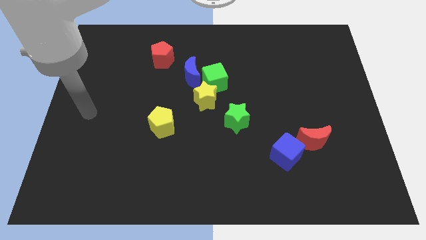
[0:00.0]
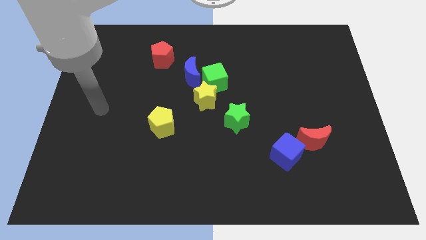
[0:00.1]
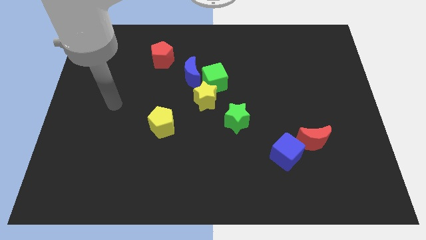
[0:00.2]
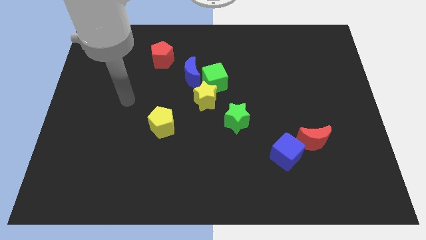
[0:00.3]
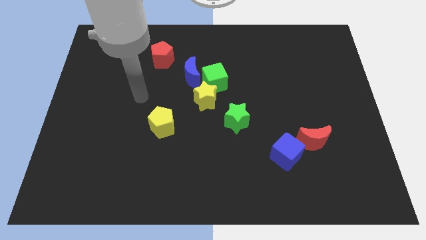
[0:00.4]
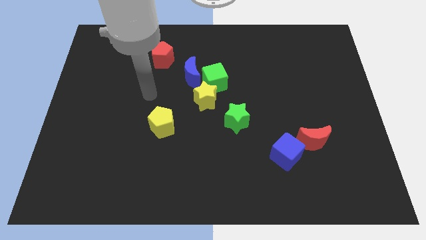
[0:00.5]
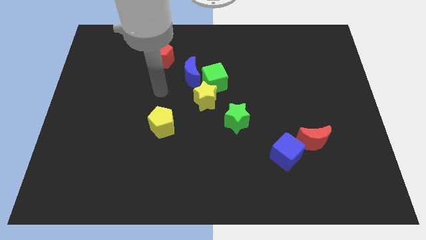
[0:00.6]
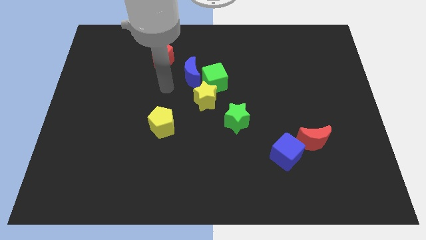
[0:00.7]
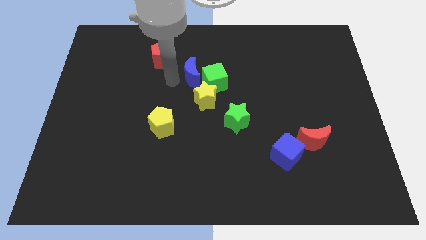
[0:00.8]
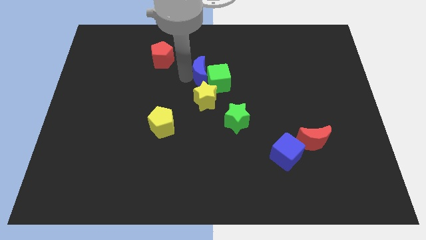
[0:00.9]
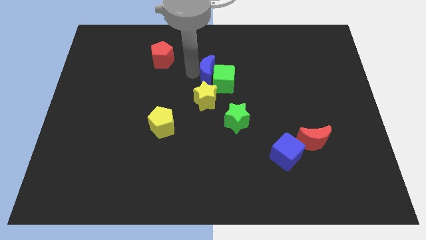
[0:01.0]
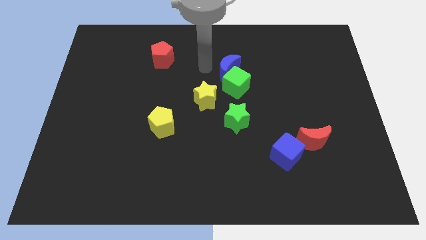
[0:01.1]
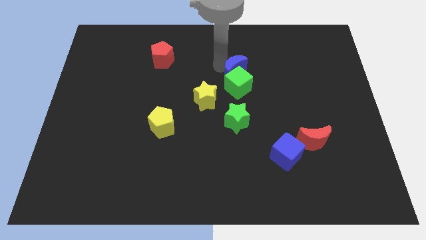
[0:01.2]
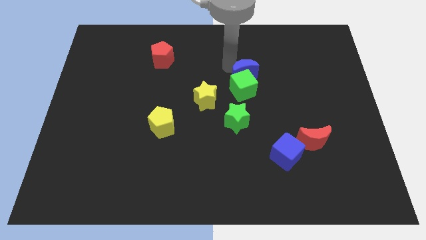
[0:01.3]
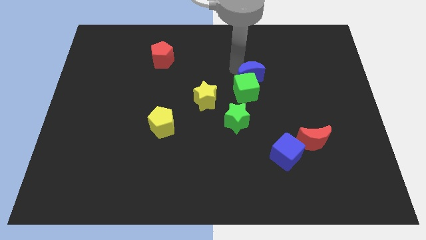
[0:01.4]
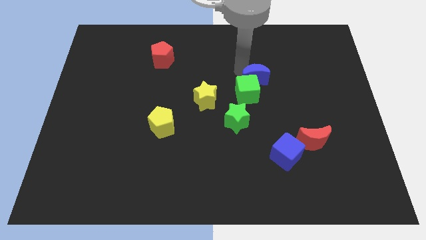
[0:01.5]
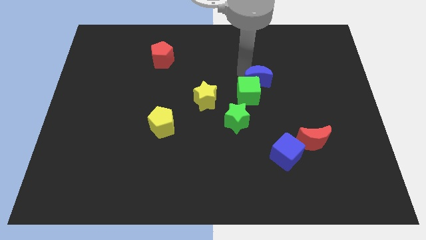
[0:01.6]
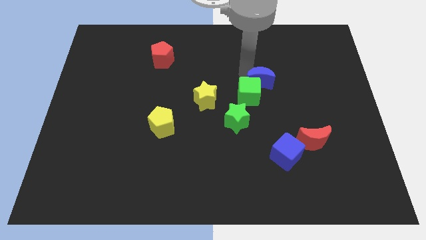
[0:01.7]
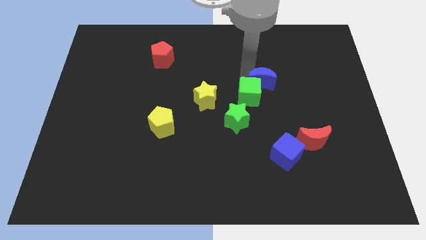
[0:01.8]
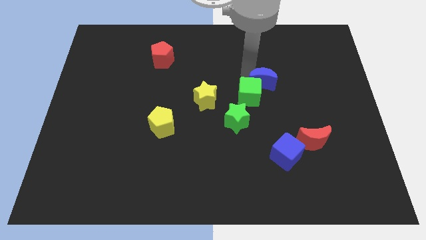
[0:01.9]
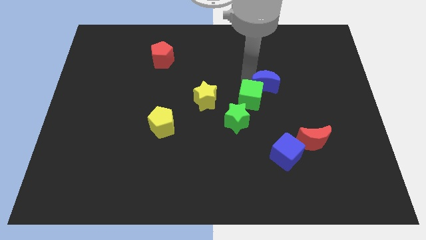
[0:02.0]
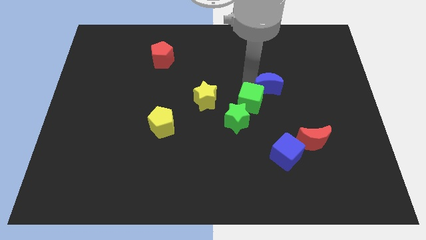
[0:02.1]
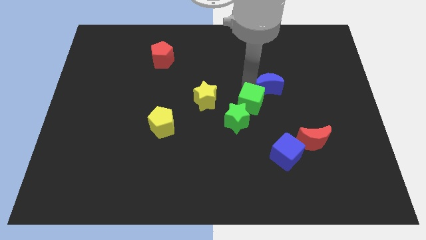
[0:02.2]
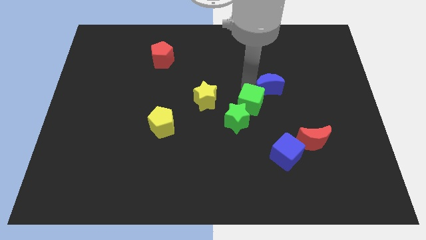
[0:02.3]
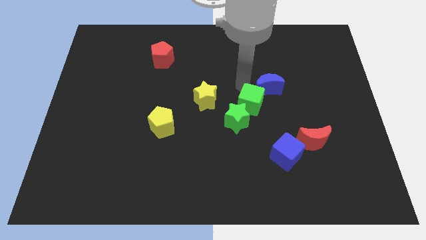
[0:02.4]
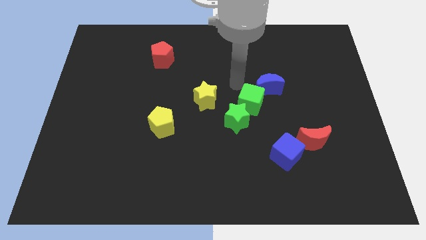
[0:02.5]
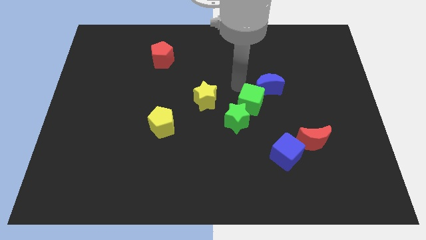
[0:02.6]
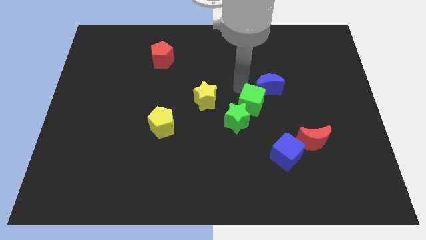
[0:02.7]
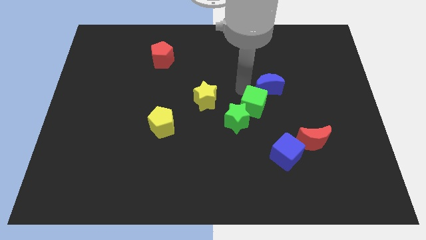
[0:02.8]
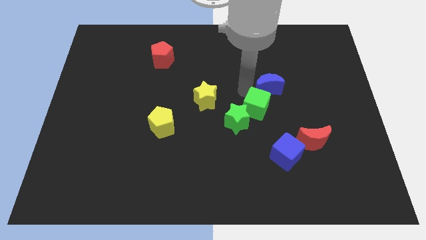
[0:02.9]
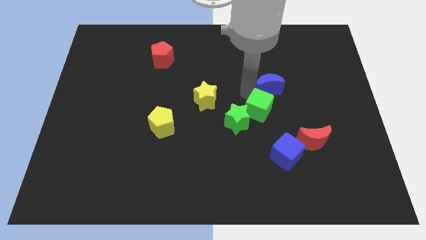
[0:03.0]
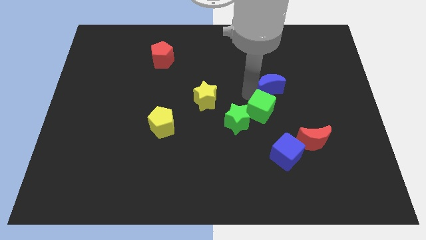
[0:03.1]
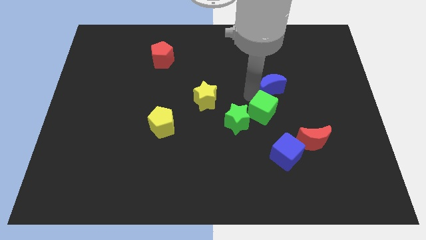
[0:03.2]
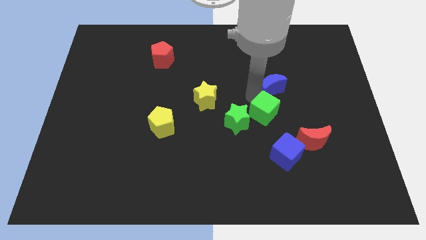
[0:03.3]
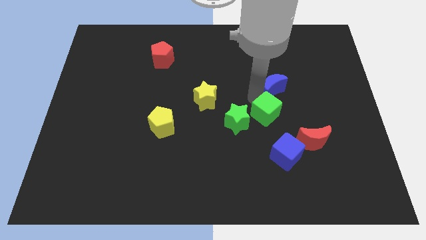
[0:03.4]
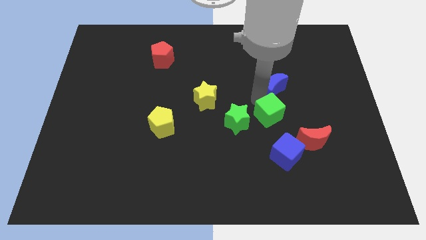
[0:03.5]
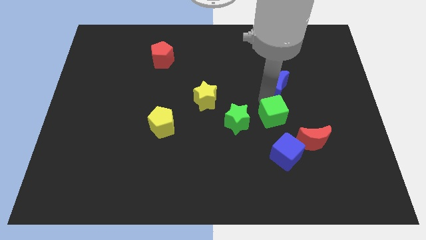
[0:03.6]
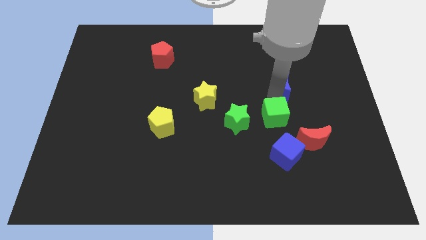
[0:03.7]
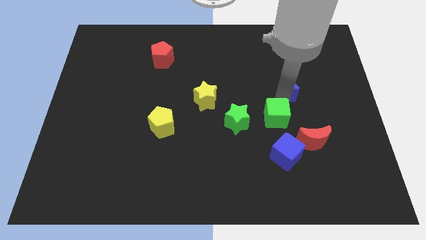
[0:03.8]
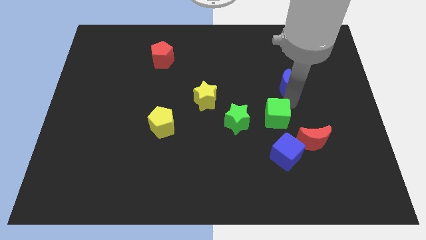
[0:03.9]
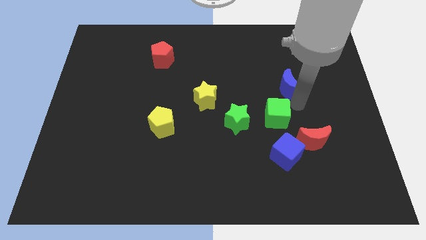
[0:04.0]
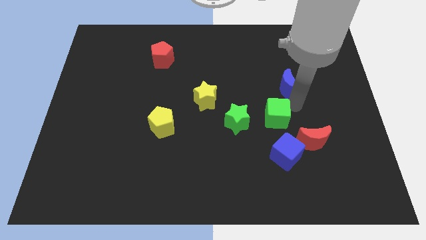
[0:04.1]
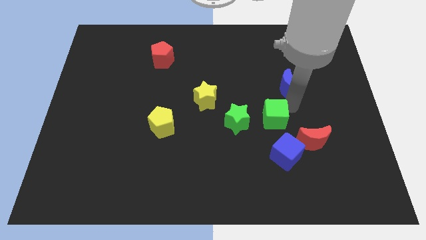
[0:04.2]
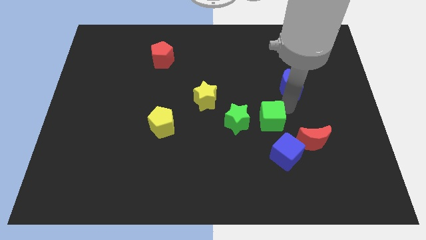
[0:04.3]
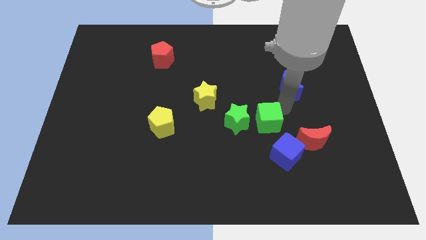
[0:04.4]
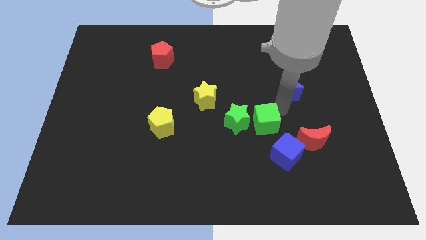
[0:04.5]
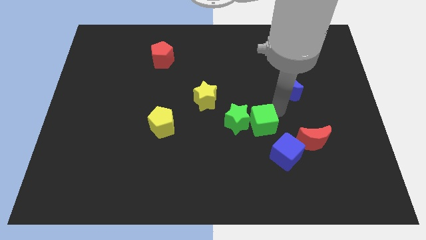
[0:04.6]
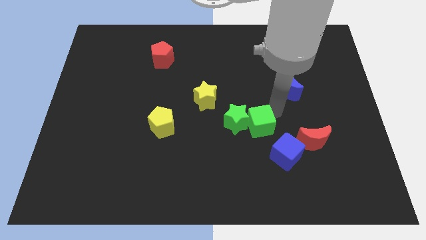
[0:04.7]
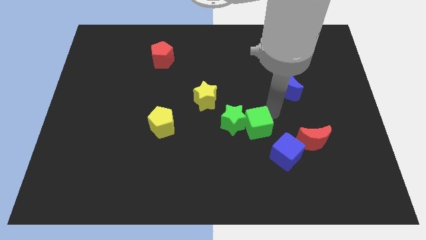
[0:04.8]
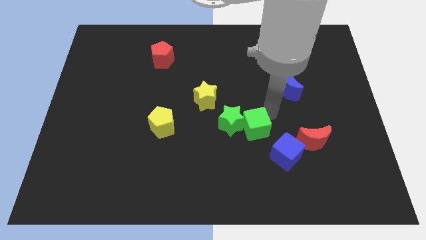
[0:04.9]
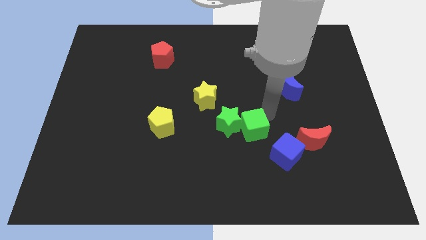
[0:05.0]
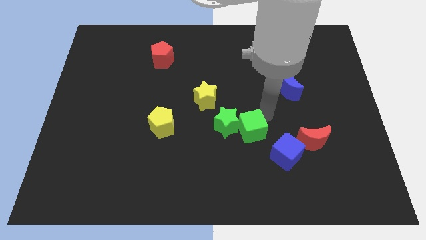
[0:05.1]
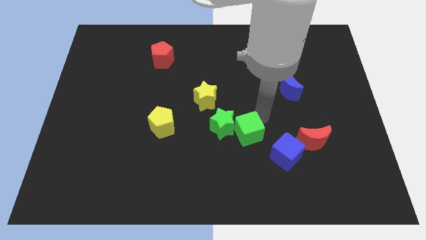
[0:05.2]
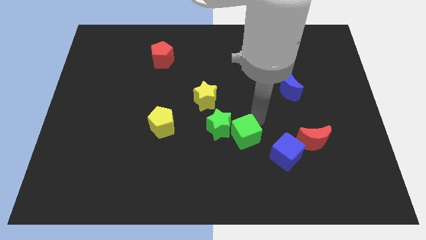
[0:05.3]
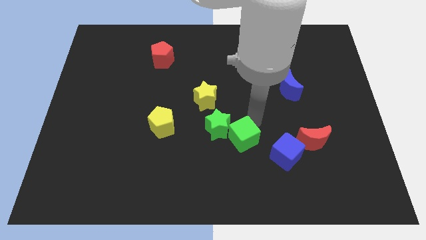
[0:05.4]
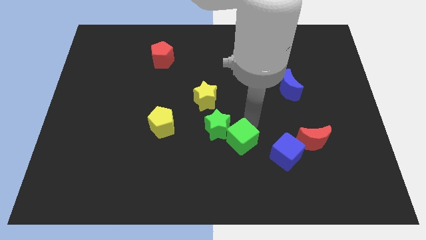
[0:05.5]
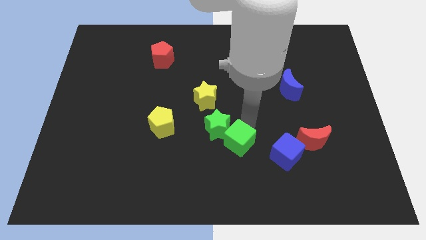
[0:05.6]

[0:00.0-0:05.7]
put the green cube to the bottom of the green star

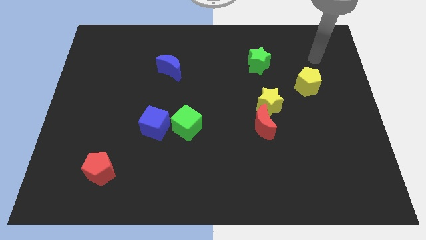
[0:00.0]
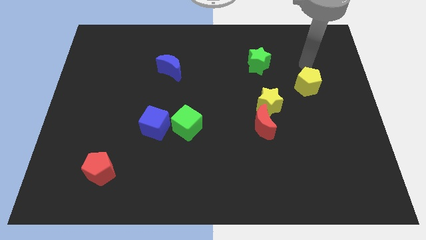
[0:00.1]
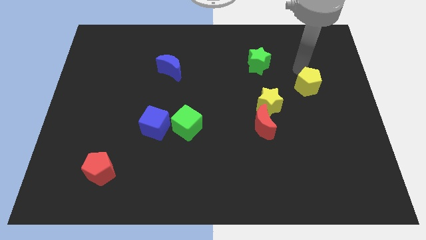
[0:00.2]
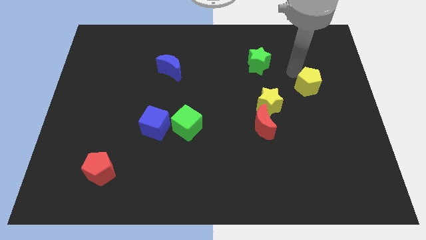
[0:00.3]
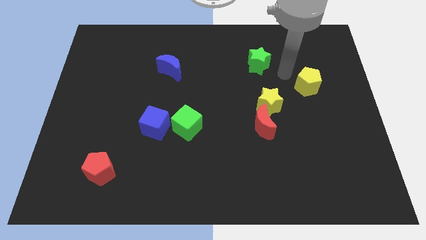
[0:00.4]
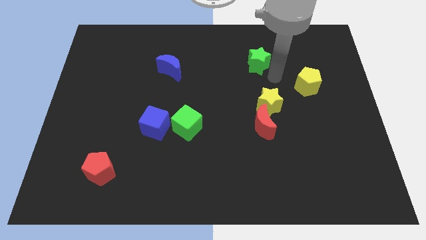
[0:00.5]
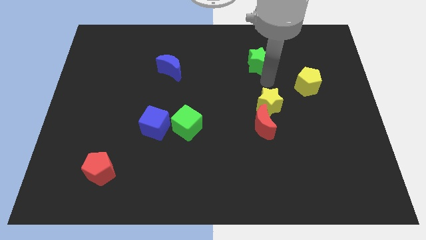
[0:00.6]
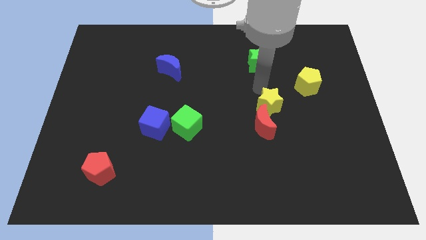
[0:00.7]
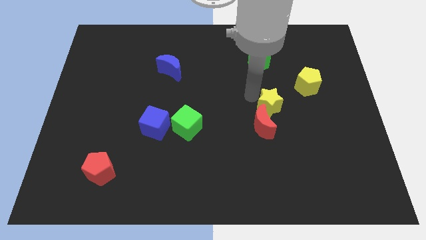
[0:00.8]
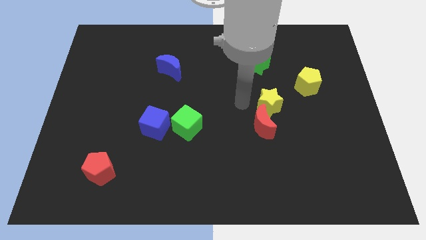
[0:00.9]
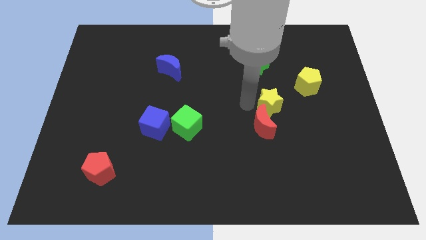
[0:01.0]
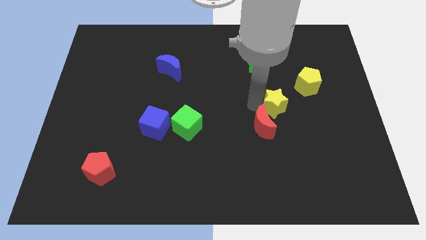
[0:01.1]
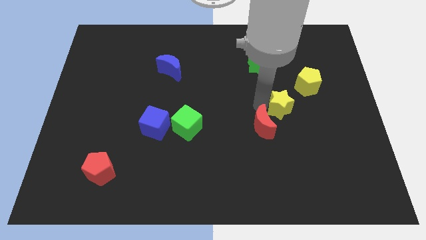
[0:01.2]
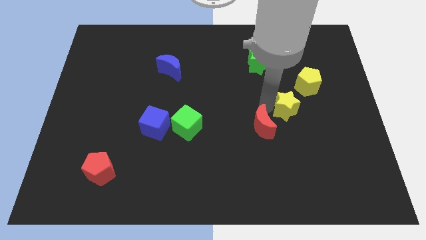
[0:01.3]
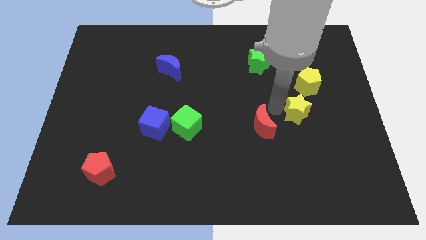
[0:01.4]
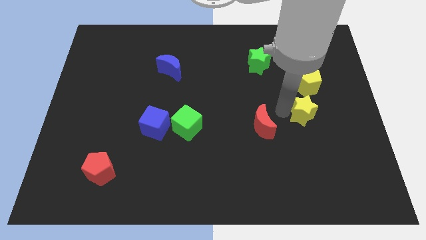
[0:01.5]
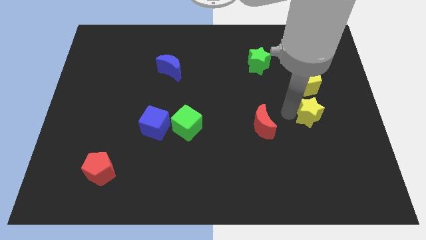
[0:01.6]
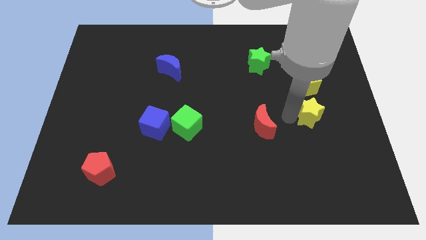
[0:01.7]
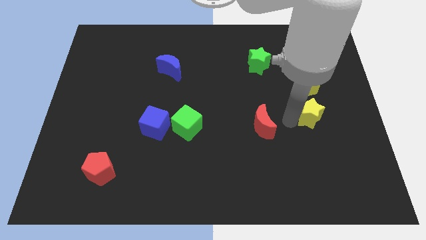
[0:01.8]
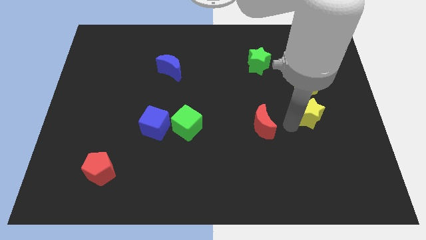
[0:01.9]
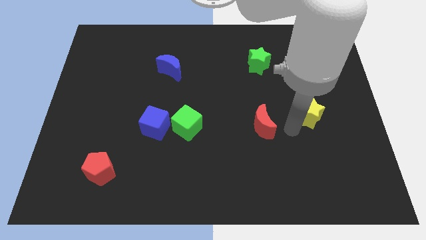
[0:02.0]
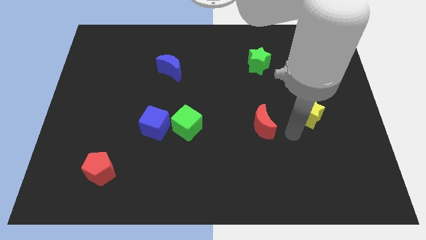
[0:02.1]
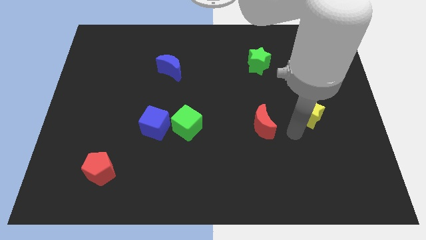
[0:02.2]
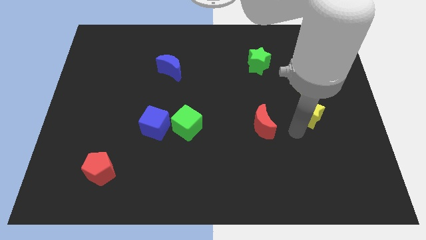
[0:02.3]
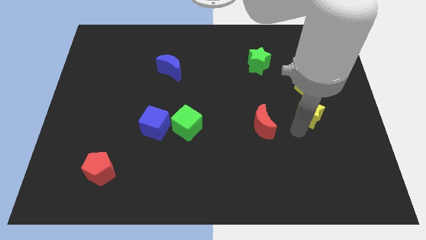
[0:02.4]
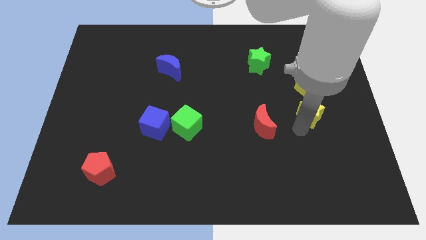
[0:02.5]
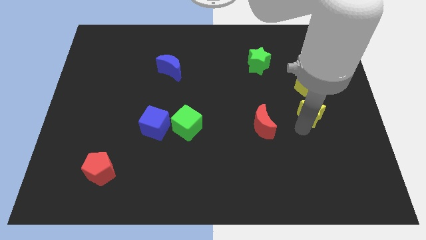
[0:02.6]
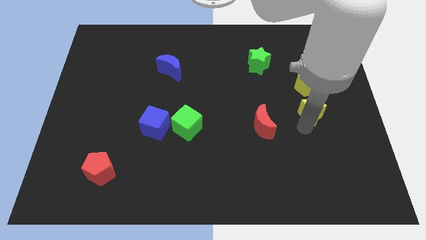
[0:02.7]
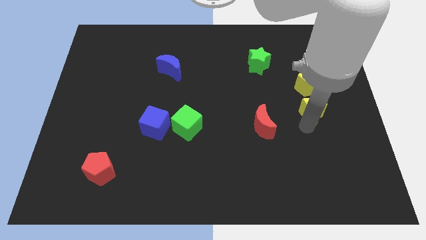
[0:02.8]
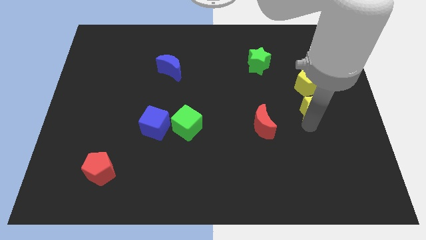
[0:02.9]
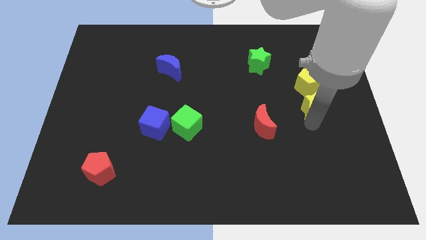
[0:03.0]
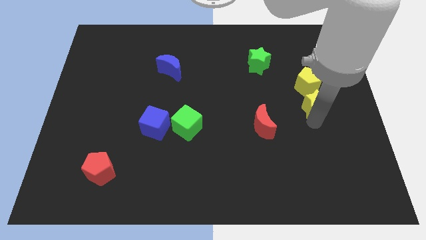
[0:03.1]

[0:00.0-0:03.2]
push the yellow star to the bottom right of the yellow pentagon
